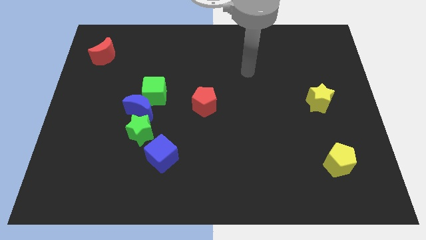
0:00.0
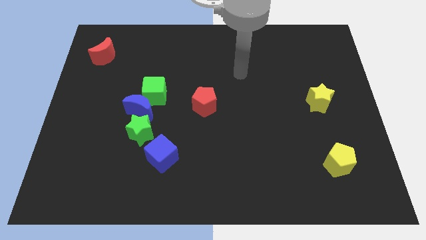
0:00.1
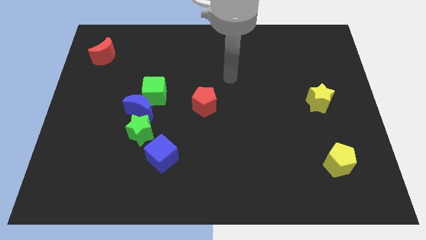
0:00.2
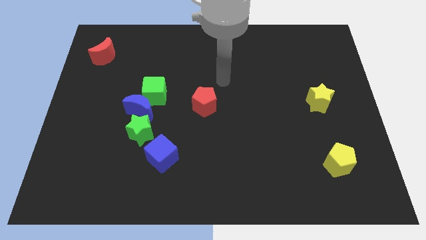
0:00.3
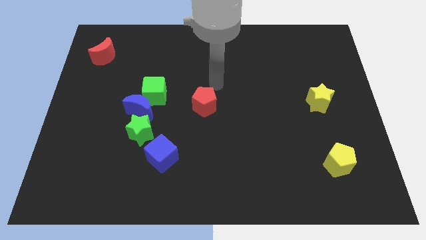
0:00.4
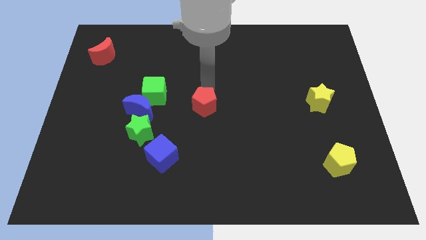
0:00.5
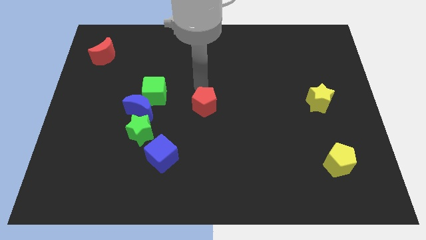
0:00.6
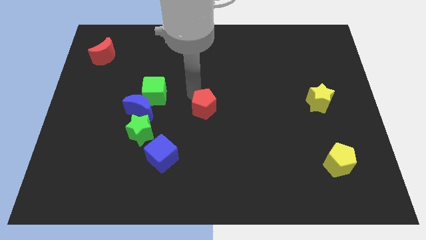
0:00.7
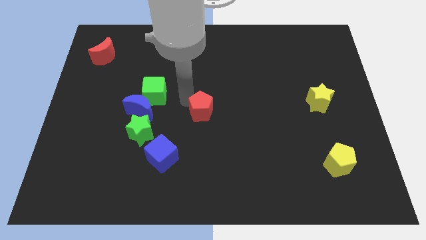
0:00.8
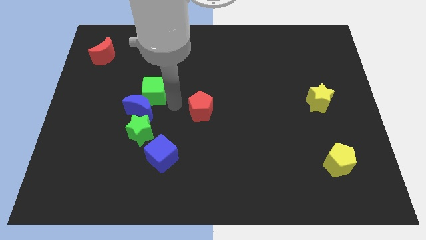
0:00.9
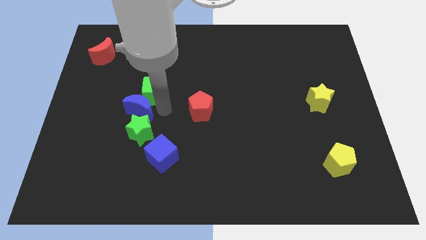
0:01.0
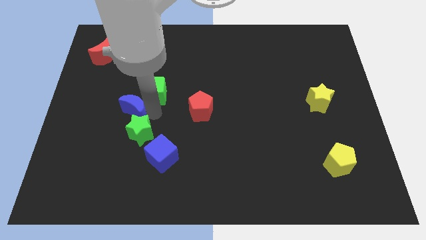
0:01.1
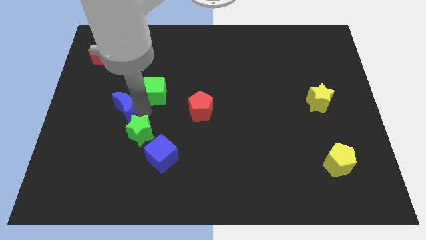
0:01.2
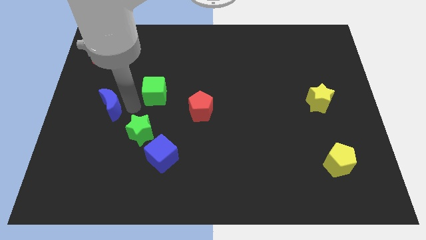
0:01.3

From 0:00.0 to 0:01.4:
move the green cube away from the blue moon

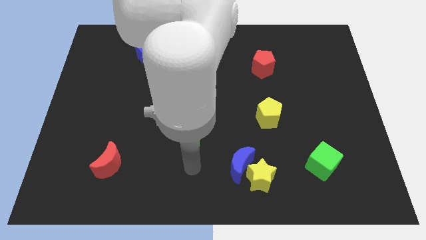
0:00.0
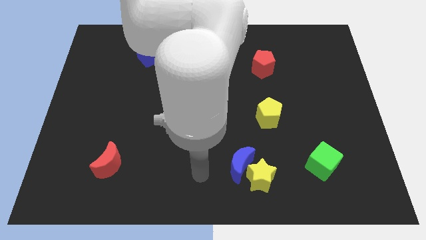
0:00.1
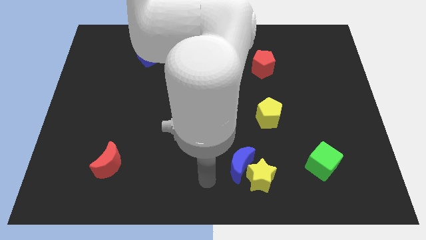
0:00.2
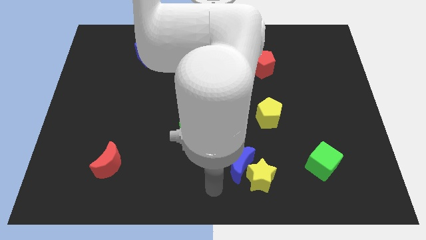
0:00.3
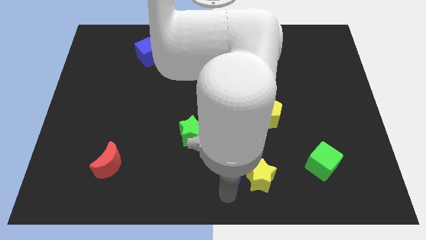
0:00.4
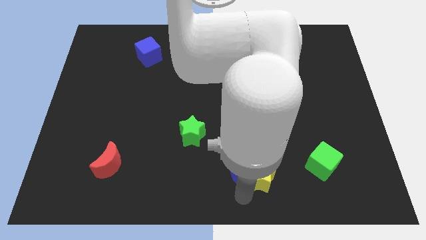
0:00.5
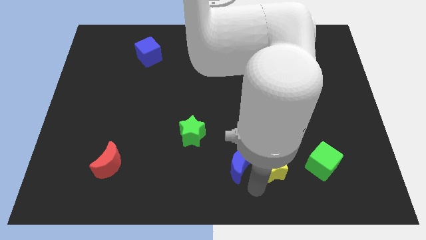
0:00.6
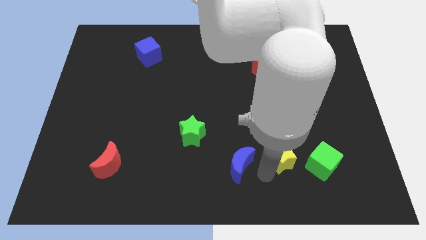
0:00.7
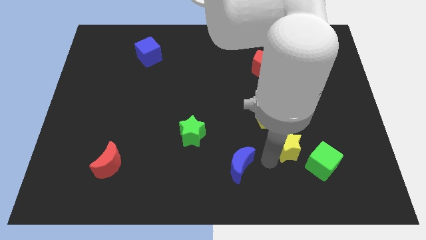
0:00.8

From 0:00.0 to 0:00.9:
separate the blue moon from the yellow star

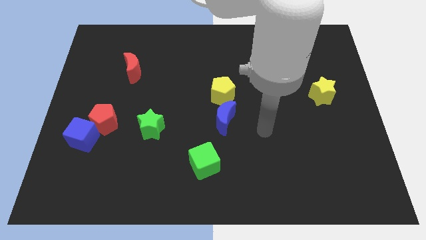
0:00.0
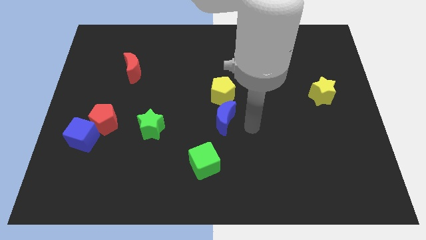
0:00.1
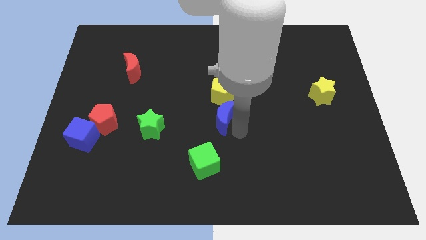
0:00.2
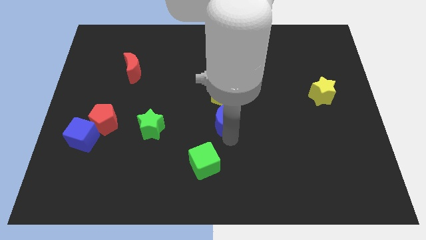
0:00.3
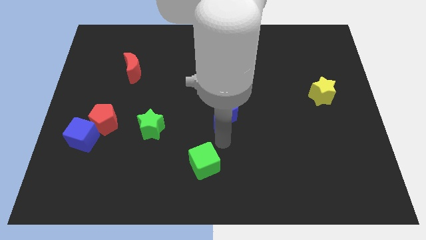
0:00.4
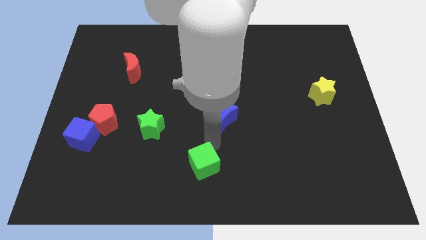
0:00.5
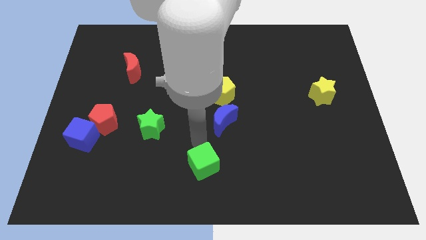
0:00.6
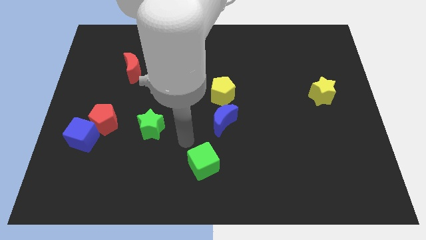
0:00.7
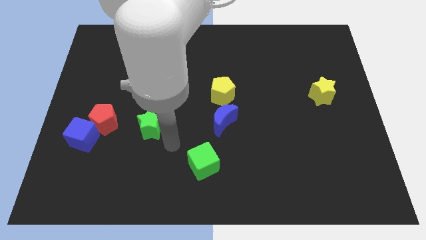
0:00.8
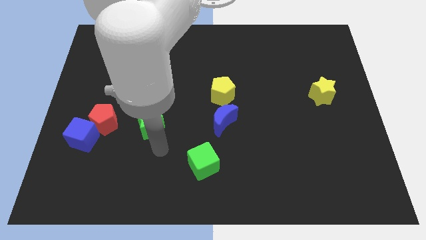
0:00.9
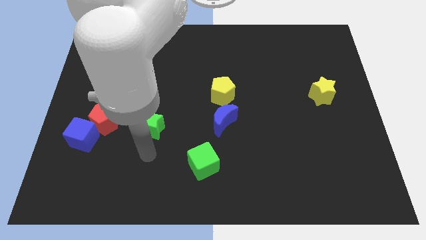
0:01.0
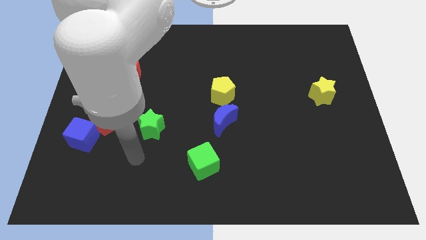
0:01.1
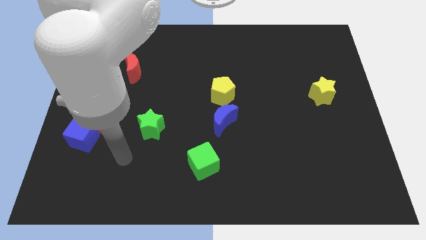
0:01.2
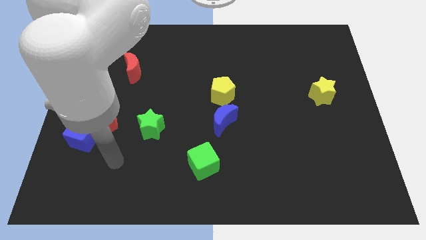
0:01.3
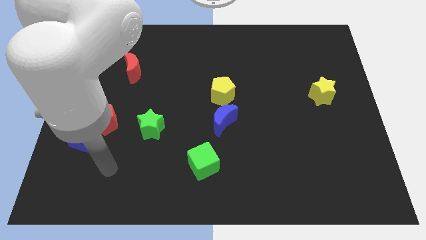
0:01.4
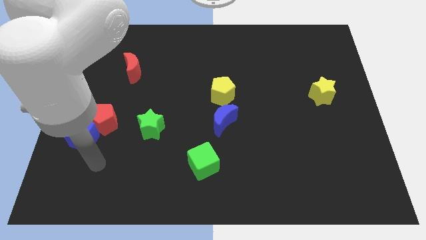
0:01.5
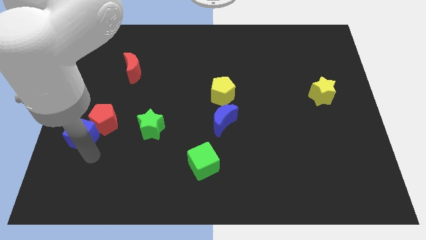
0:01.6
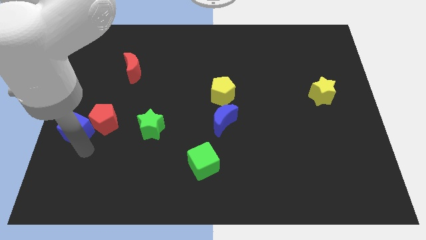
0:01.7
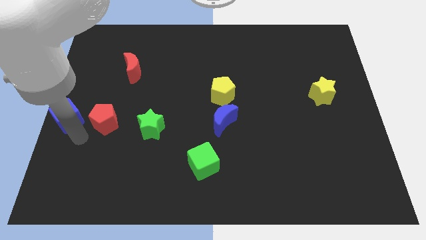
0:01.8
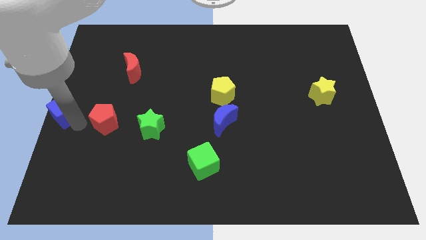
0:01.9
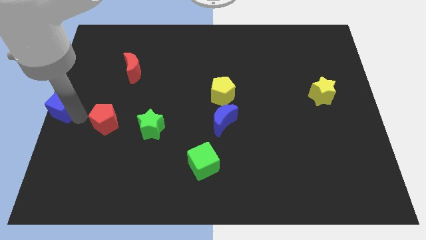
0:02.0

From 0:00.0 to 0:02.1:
pull the red pentagon apart from the blue cube

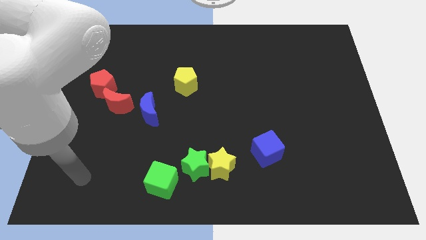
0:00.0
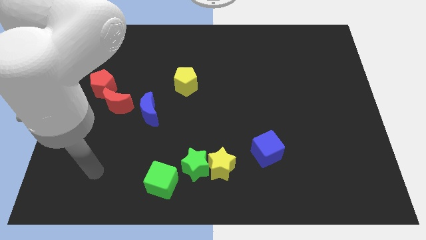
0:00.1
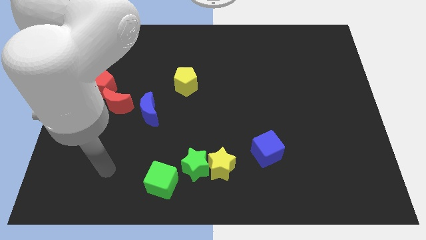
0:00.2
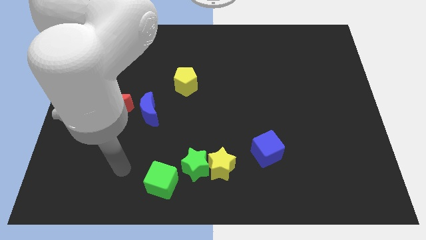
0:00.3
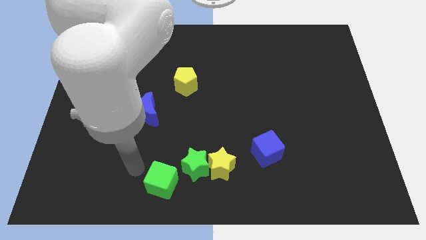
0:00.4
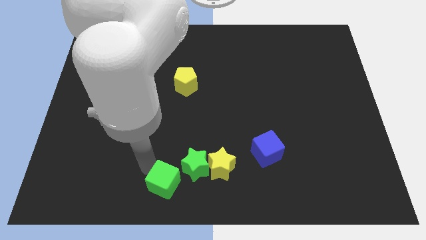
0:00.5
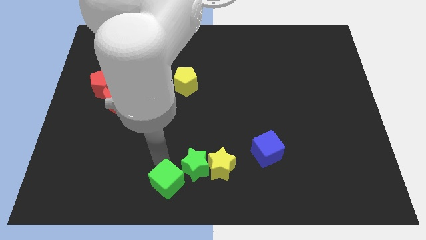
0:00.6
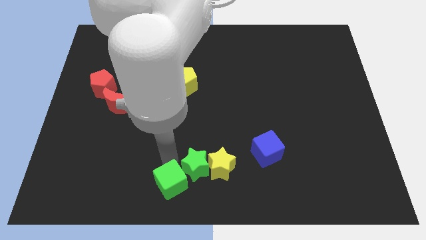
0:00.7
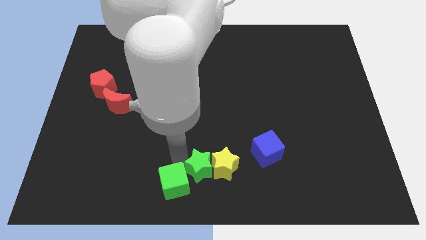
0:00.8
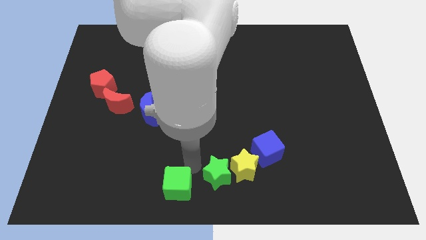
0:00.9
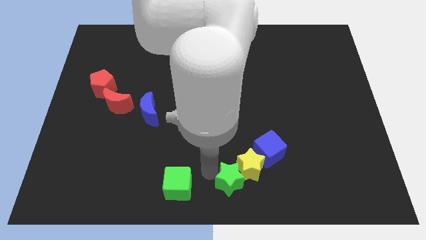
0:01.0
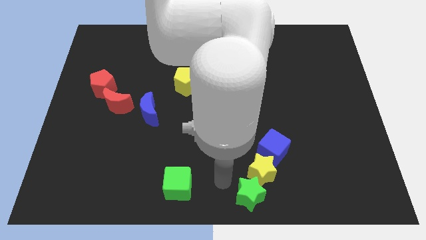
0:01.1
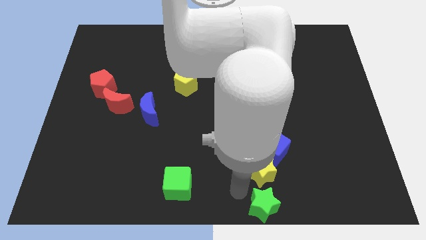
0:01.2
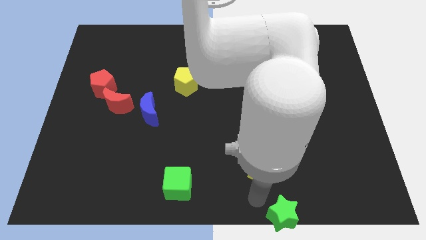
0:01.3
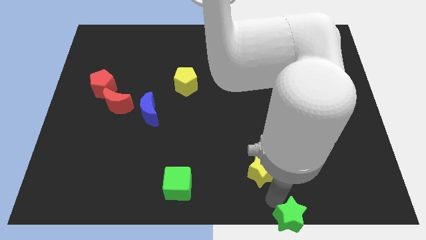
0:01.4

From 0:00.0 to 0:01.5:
move the yellow star away from the green star

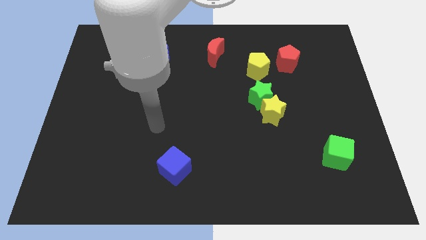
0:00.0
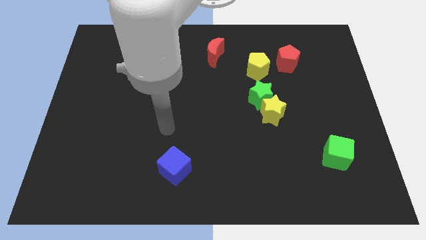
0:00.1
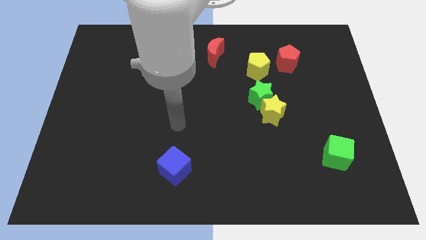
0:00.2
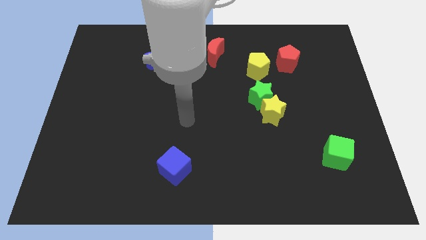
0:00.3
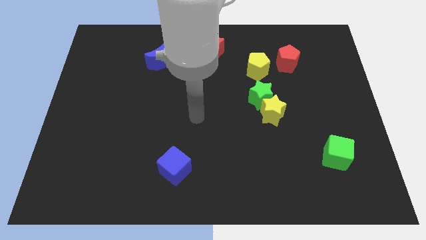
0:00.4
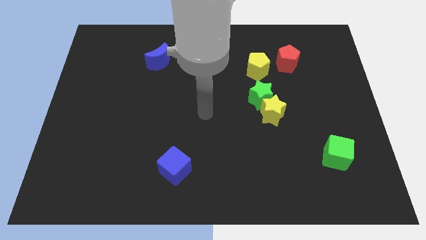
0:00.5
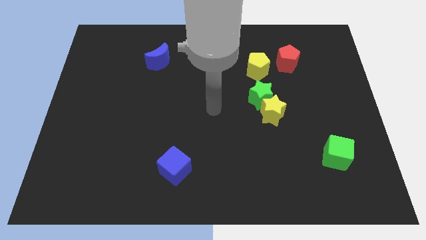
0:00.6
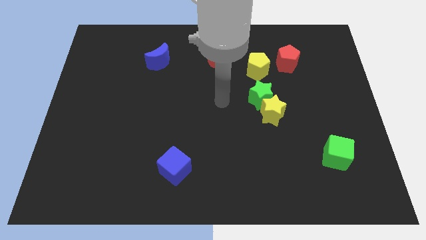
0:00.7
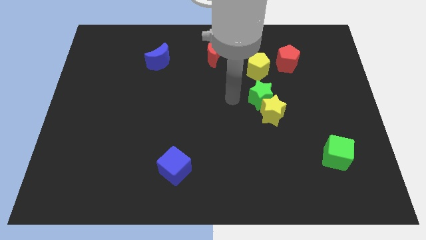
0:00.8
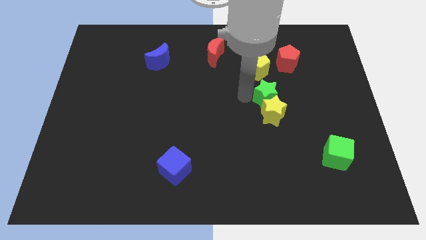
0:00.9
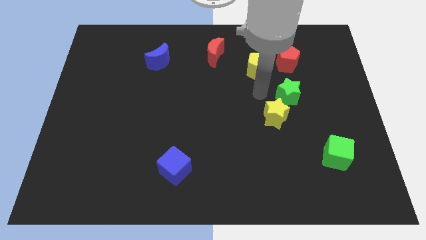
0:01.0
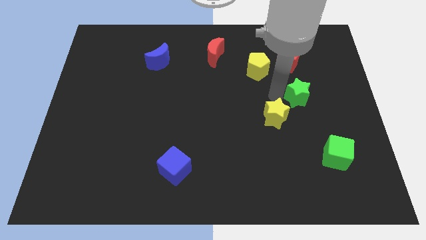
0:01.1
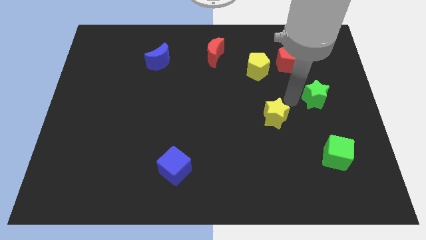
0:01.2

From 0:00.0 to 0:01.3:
separate the yellow star from the green star

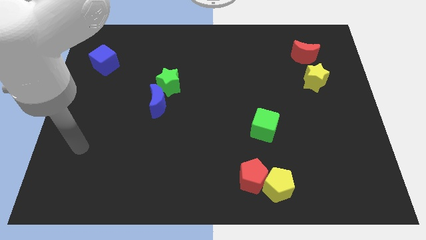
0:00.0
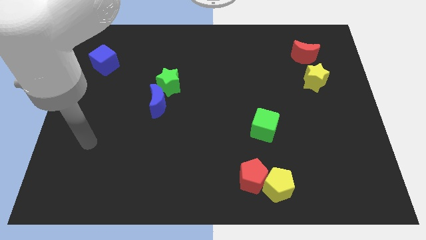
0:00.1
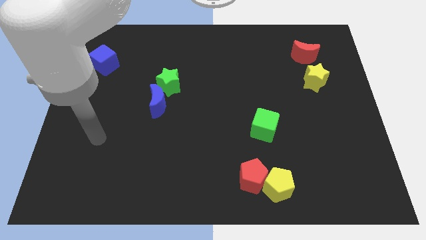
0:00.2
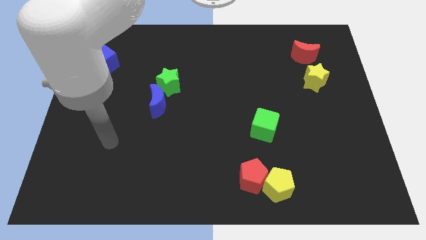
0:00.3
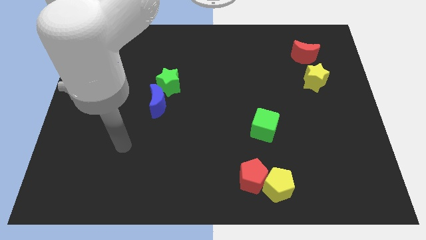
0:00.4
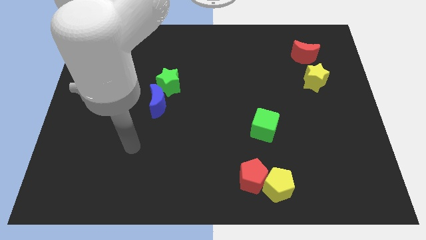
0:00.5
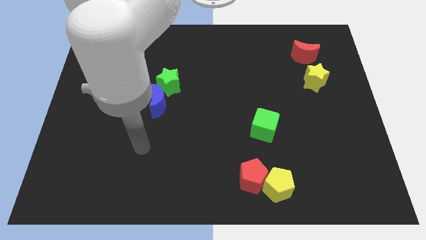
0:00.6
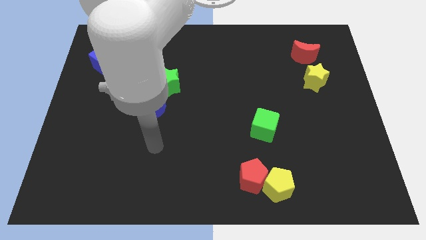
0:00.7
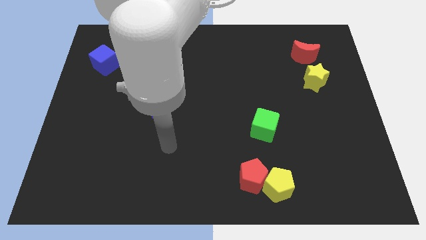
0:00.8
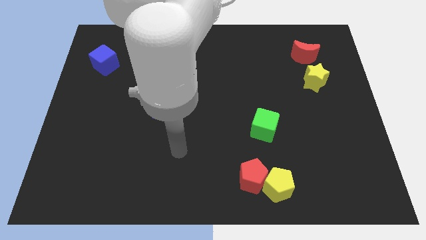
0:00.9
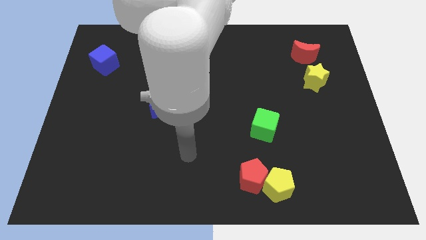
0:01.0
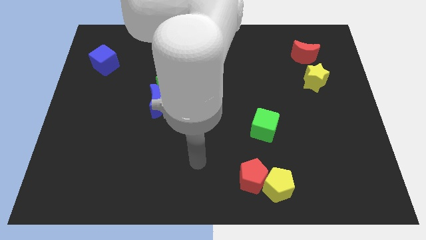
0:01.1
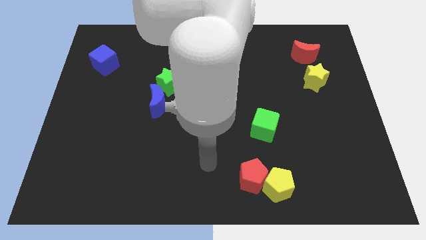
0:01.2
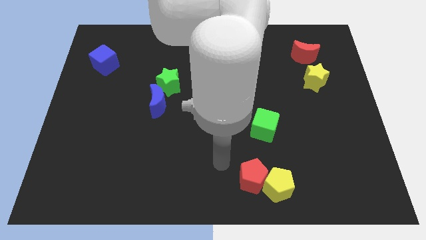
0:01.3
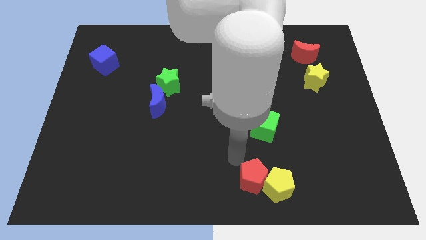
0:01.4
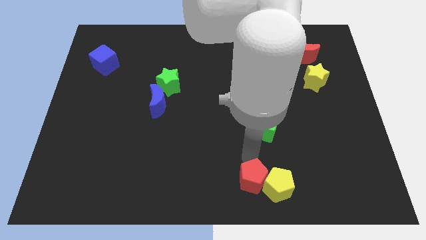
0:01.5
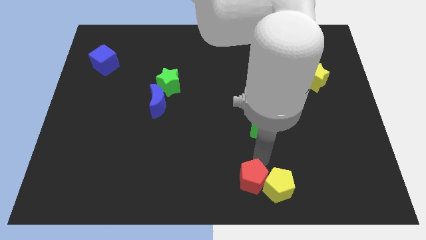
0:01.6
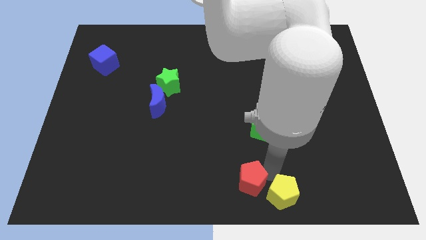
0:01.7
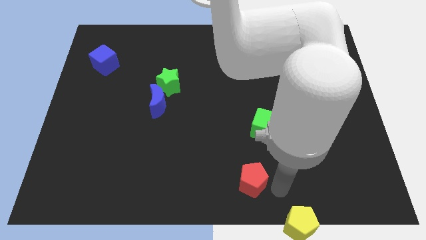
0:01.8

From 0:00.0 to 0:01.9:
separate the red pentagon from the yellow pentagon
